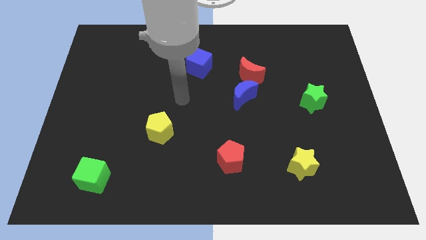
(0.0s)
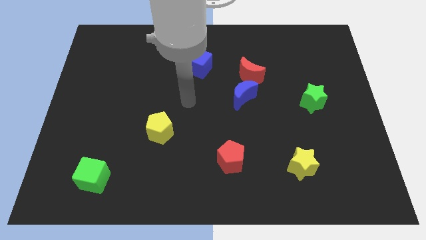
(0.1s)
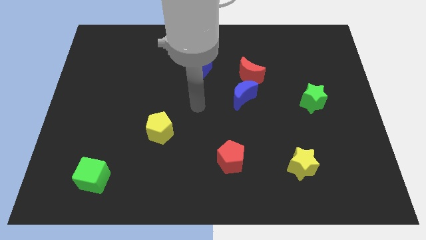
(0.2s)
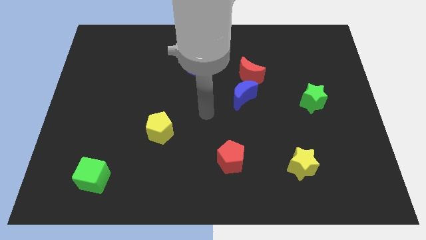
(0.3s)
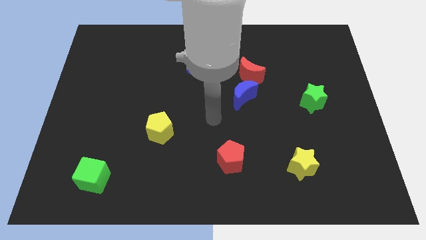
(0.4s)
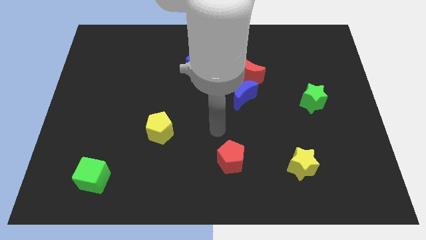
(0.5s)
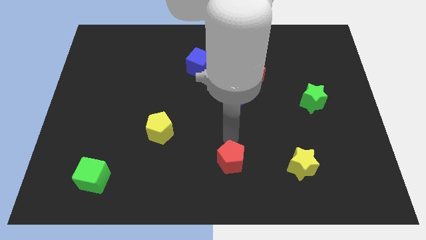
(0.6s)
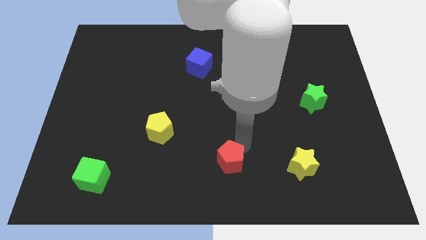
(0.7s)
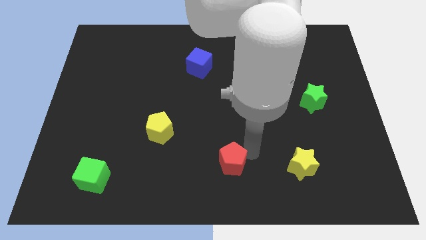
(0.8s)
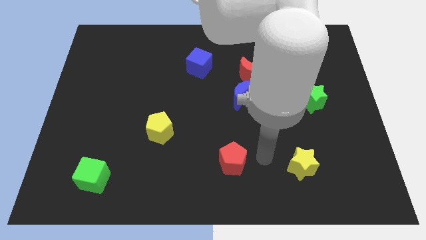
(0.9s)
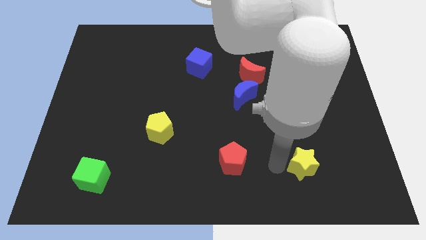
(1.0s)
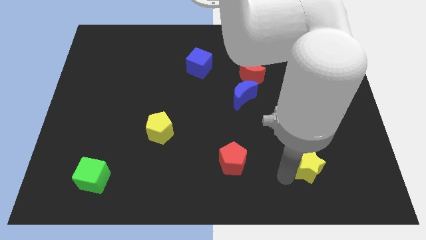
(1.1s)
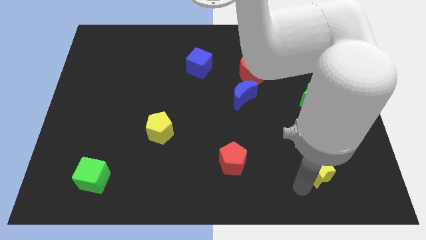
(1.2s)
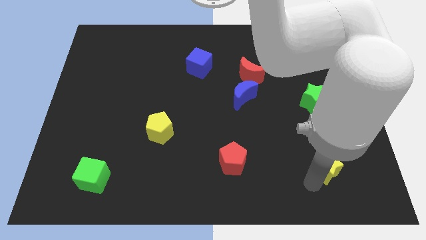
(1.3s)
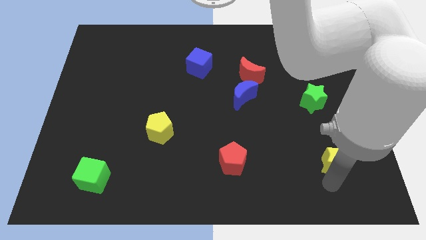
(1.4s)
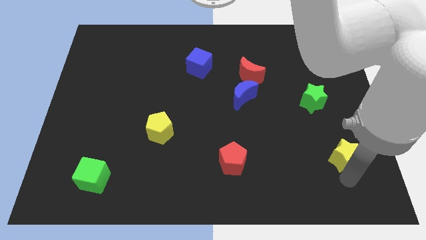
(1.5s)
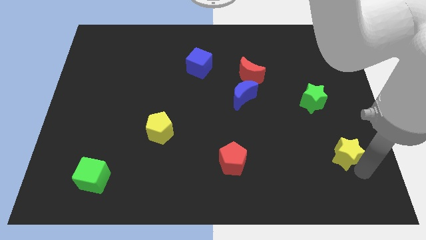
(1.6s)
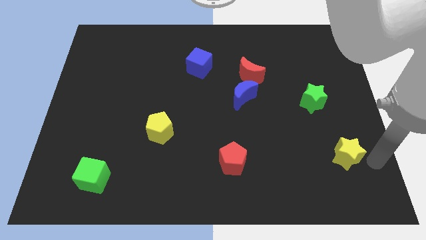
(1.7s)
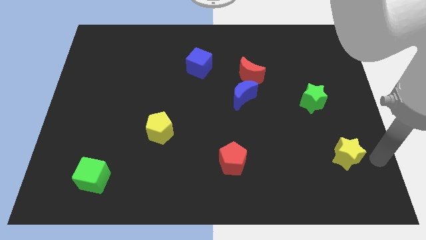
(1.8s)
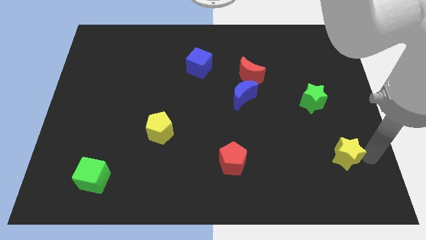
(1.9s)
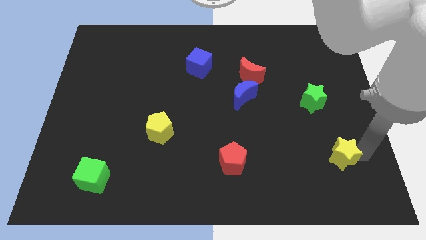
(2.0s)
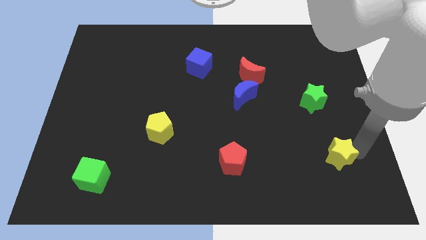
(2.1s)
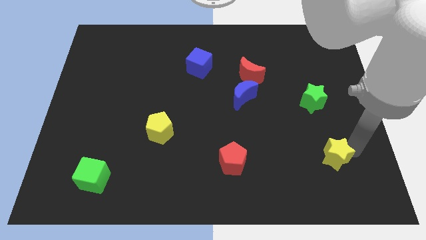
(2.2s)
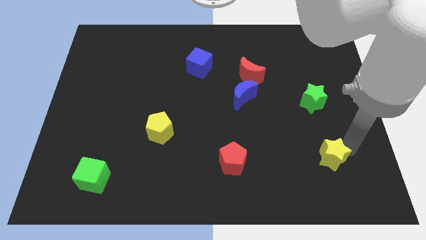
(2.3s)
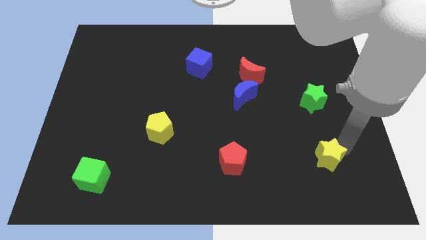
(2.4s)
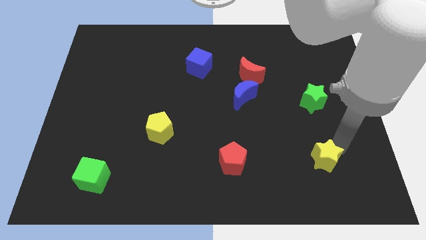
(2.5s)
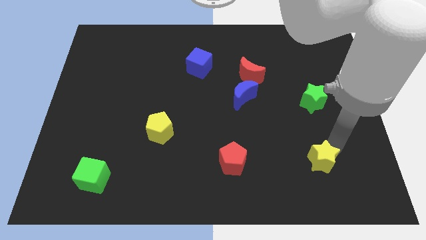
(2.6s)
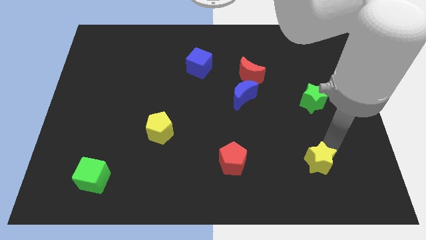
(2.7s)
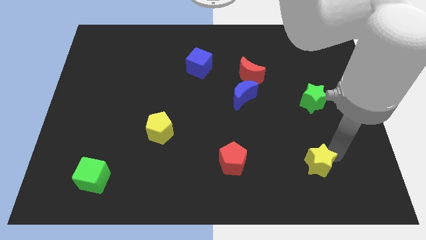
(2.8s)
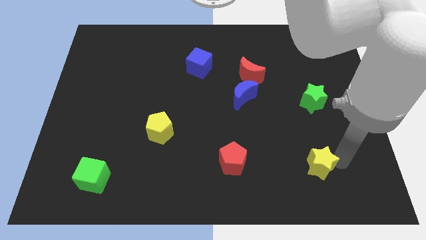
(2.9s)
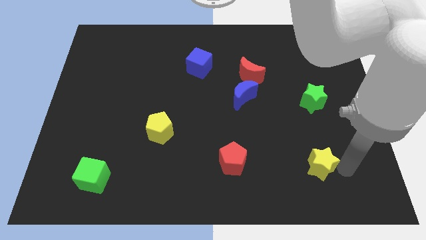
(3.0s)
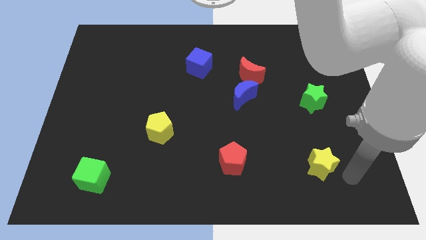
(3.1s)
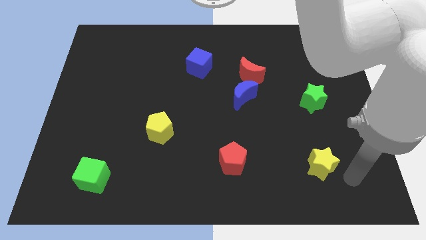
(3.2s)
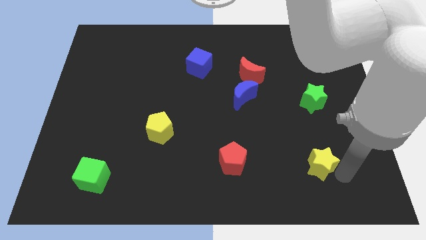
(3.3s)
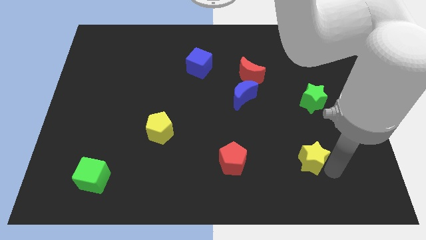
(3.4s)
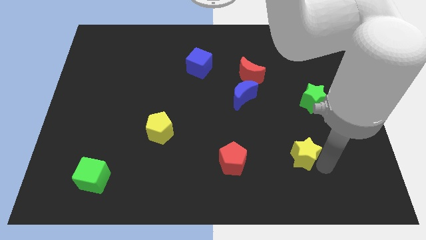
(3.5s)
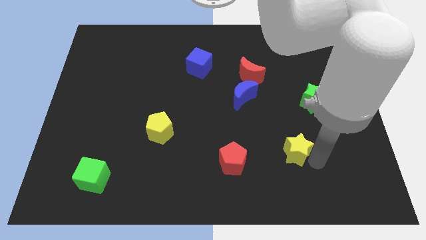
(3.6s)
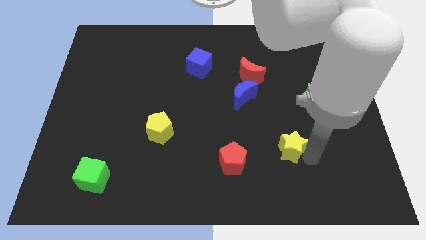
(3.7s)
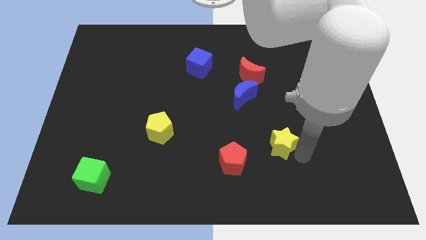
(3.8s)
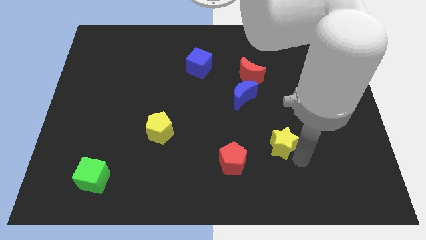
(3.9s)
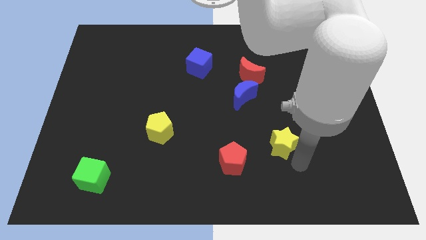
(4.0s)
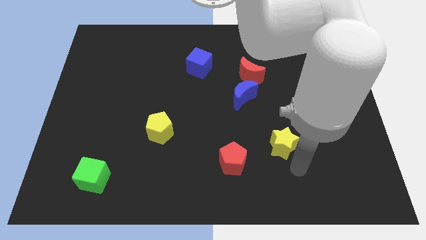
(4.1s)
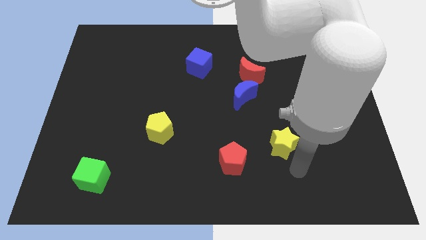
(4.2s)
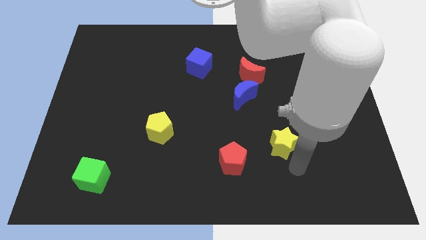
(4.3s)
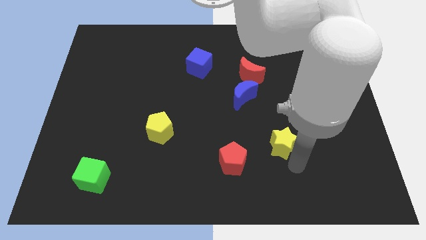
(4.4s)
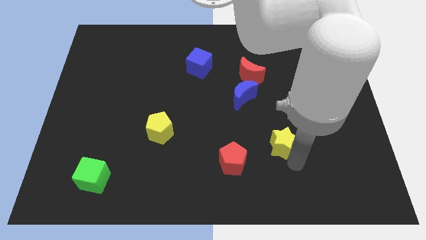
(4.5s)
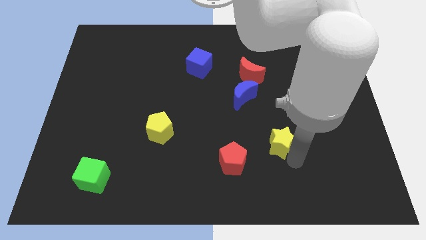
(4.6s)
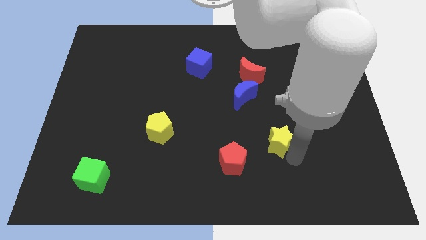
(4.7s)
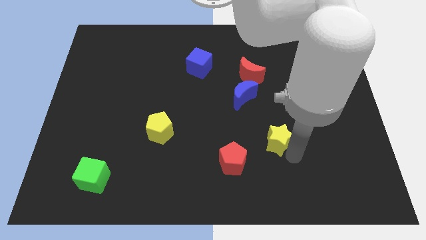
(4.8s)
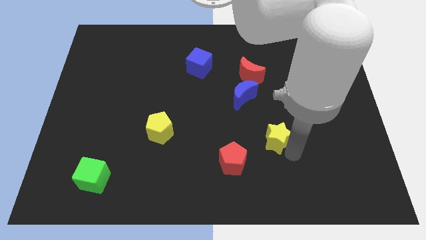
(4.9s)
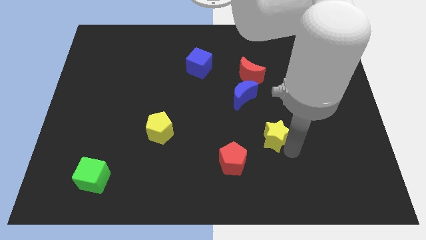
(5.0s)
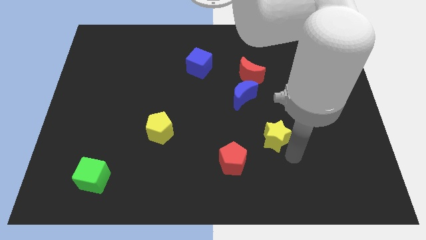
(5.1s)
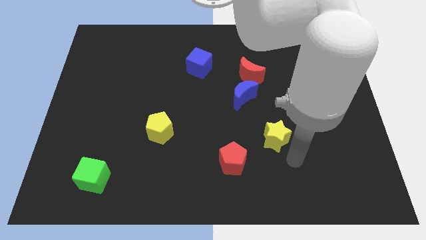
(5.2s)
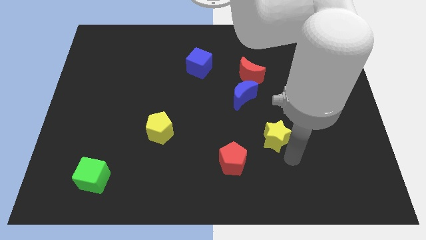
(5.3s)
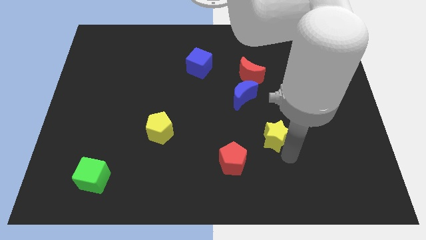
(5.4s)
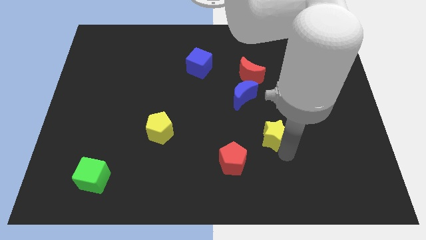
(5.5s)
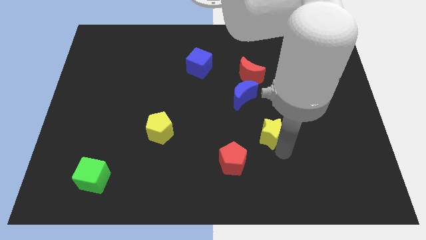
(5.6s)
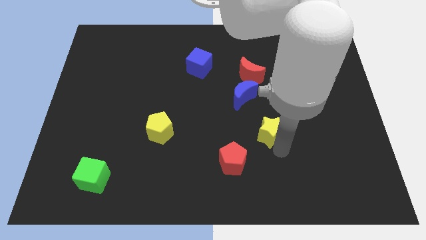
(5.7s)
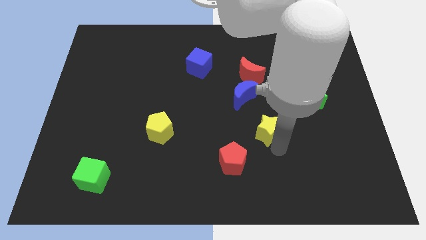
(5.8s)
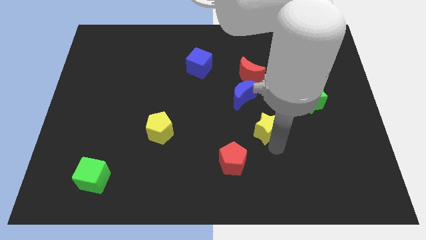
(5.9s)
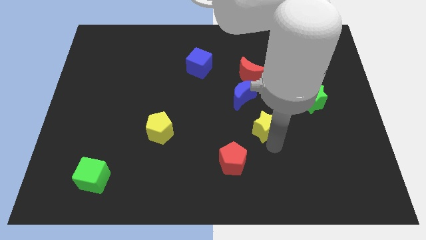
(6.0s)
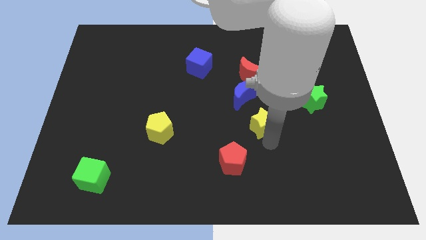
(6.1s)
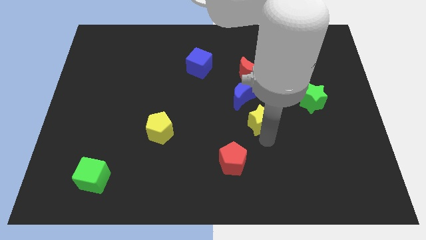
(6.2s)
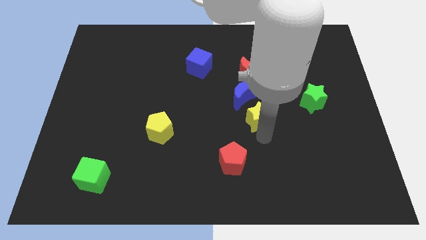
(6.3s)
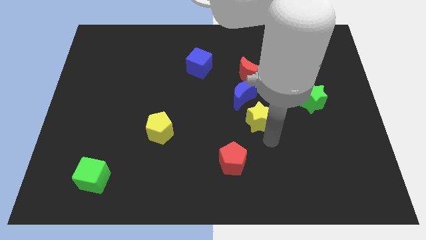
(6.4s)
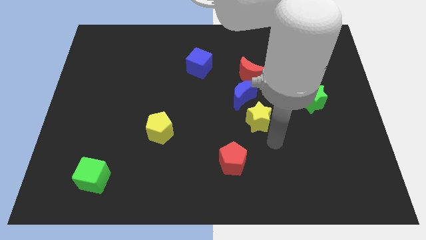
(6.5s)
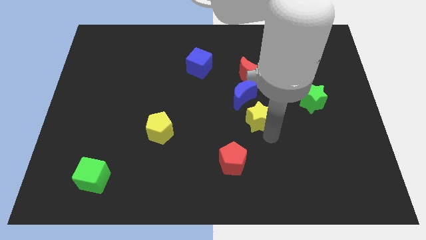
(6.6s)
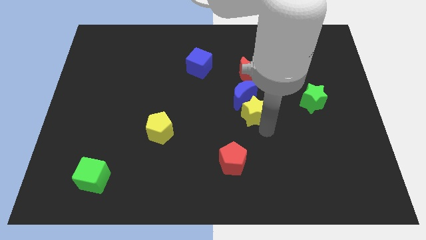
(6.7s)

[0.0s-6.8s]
move the yellow star to the blue moon
